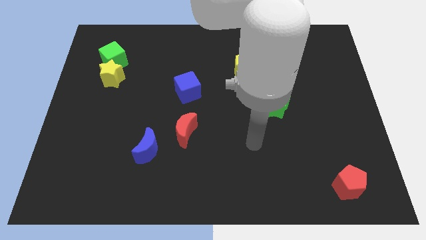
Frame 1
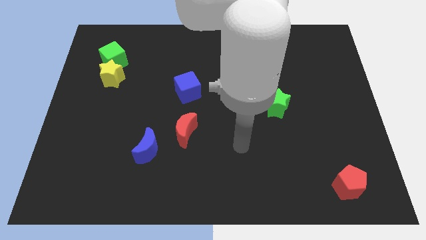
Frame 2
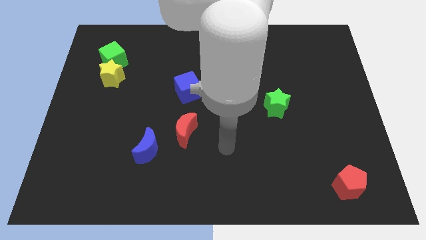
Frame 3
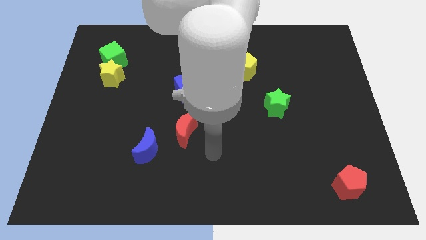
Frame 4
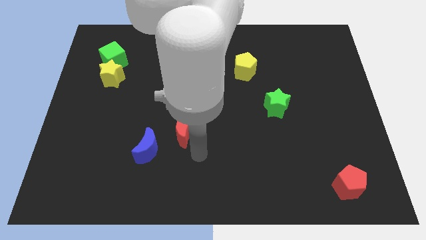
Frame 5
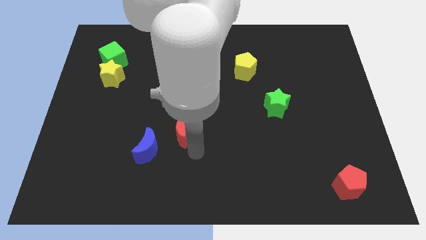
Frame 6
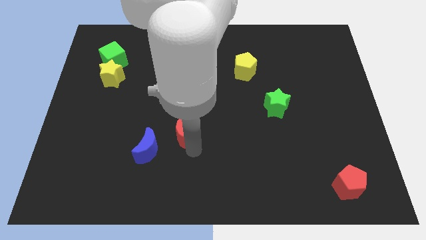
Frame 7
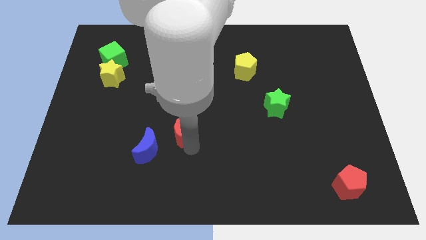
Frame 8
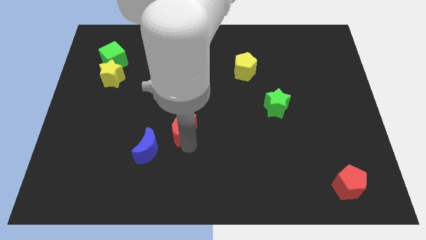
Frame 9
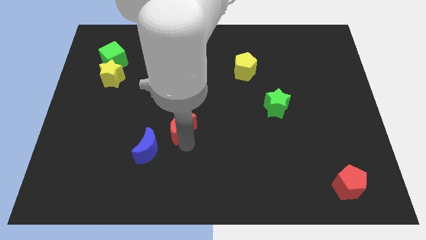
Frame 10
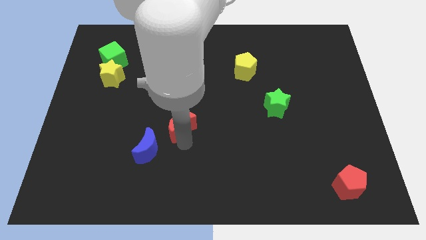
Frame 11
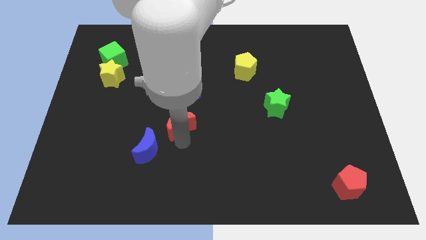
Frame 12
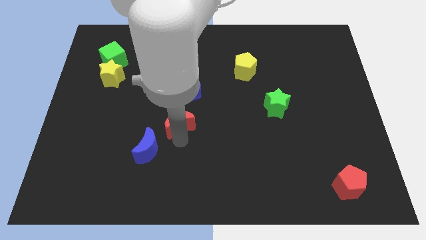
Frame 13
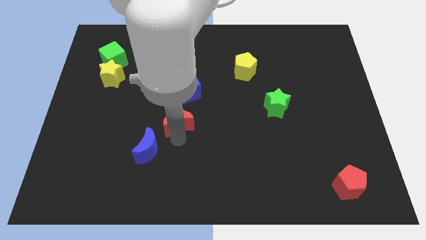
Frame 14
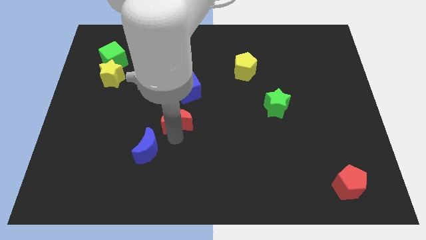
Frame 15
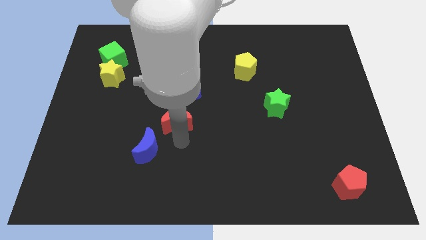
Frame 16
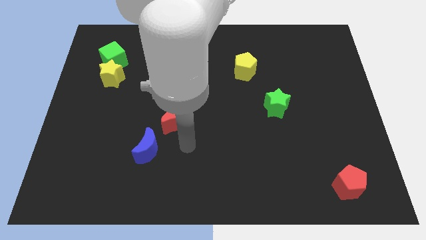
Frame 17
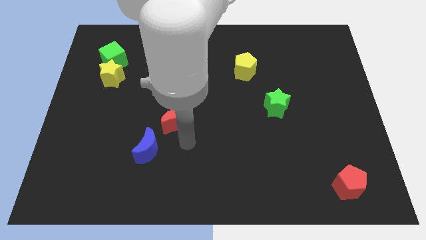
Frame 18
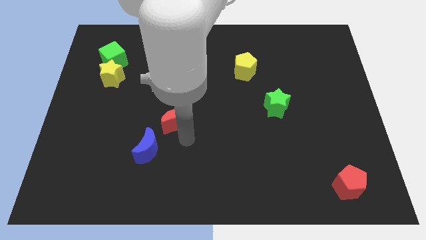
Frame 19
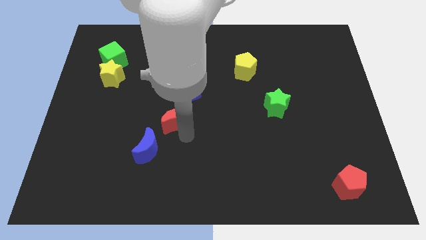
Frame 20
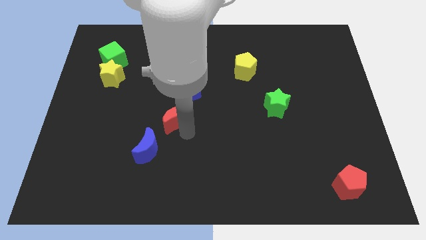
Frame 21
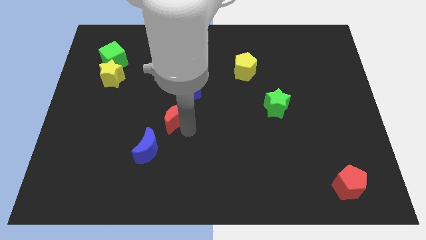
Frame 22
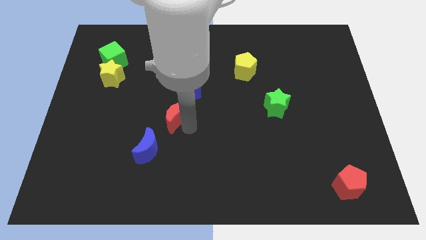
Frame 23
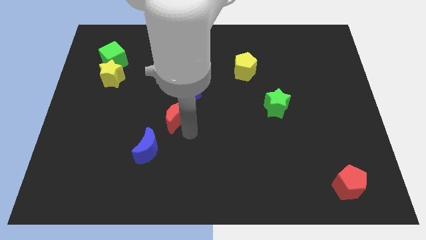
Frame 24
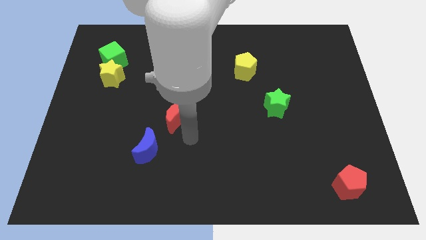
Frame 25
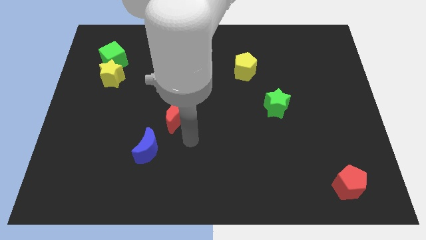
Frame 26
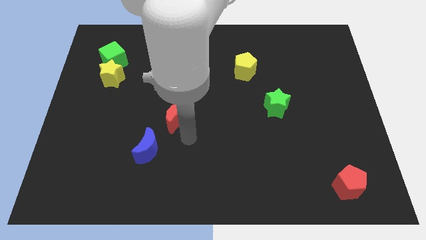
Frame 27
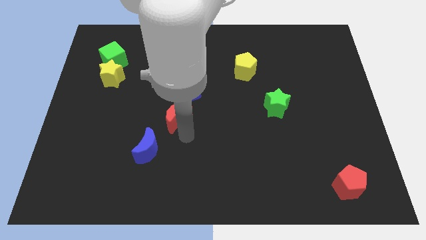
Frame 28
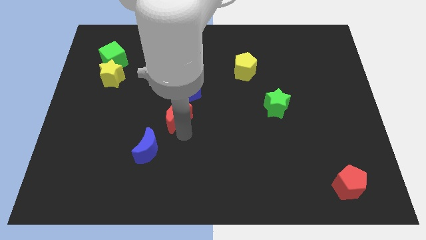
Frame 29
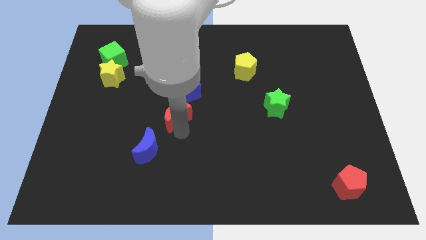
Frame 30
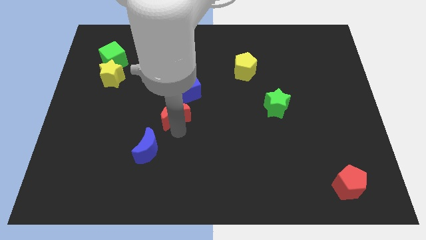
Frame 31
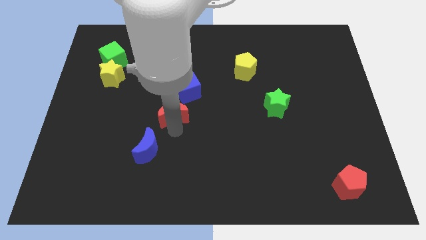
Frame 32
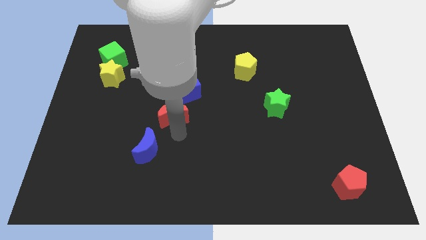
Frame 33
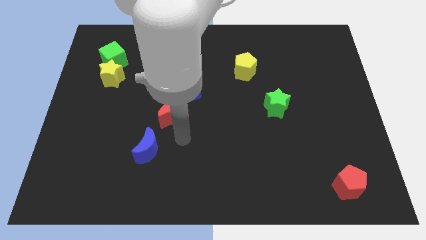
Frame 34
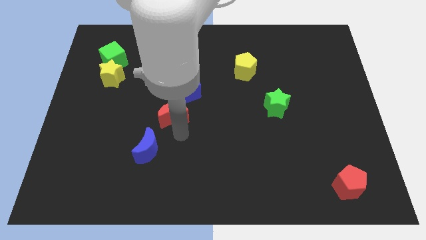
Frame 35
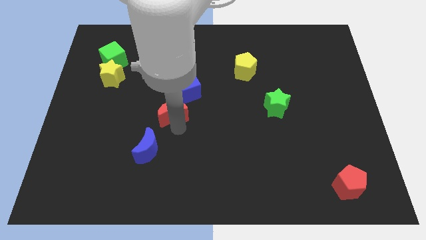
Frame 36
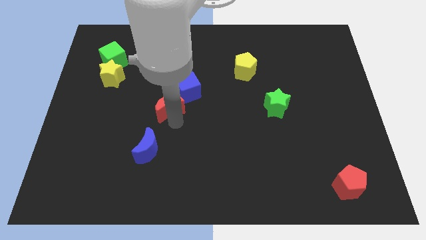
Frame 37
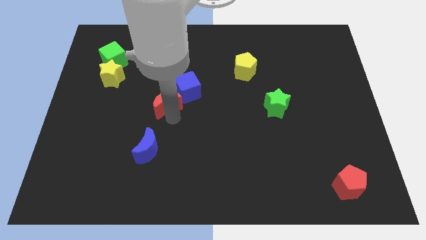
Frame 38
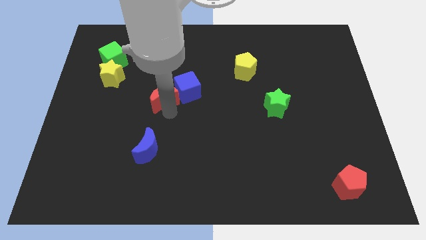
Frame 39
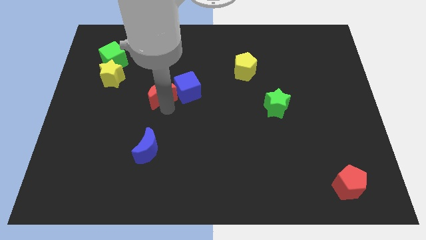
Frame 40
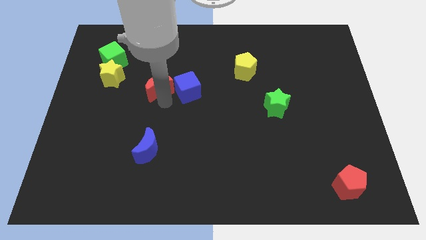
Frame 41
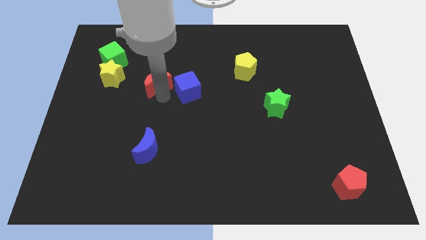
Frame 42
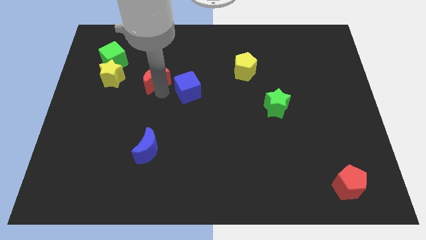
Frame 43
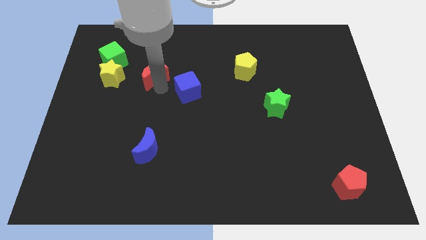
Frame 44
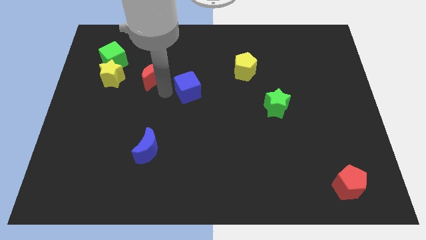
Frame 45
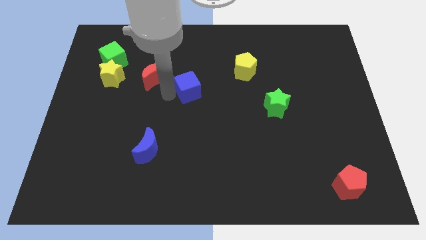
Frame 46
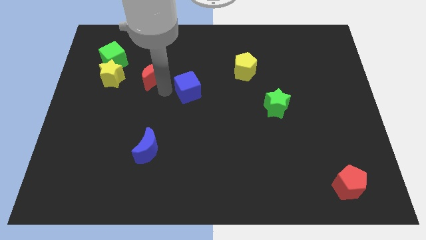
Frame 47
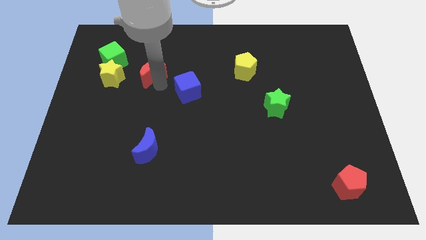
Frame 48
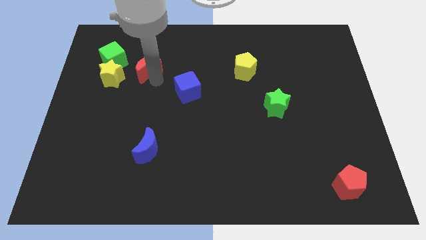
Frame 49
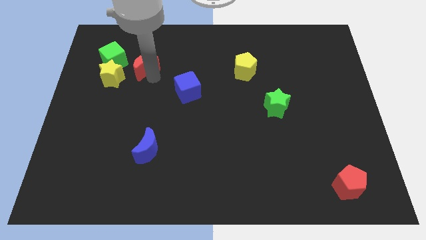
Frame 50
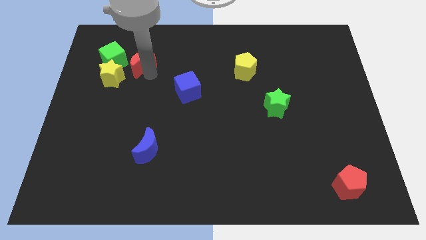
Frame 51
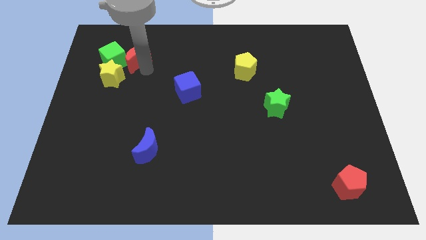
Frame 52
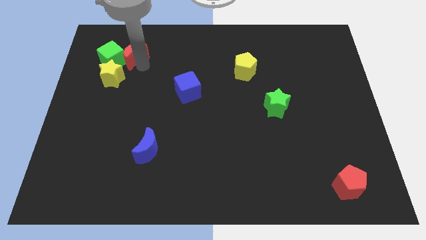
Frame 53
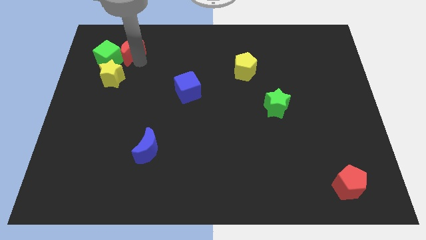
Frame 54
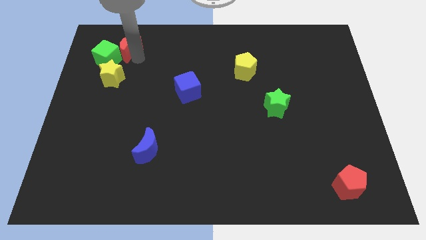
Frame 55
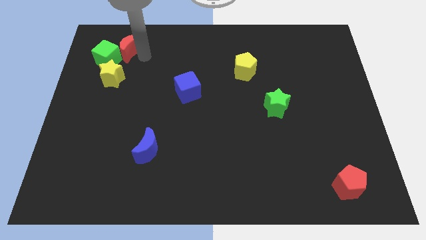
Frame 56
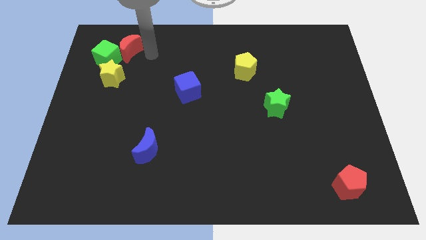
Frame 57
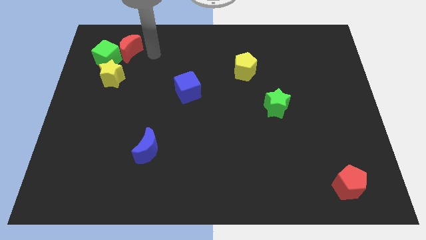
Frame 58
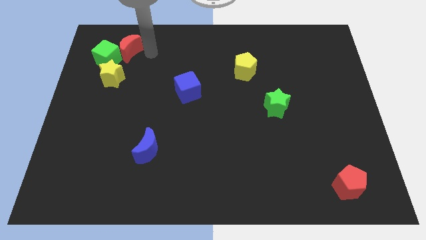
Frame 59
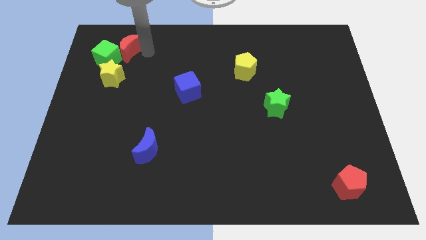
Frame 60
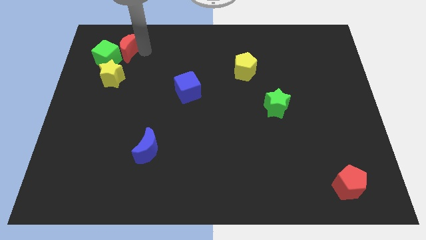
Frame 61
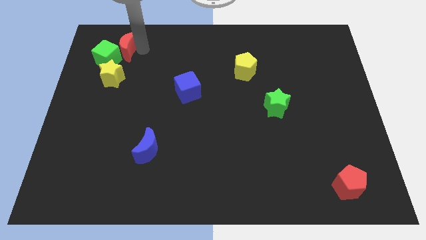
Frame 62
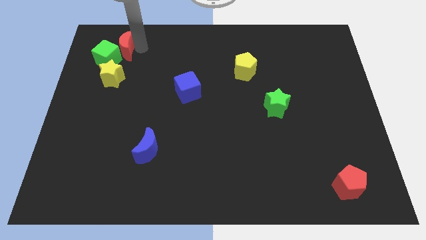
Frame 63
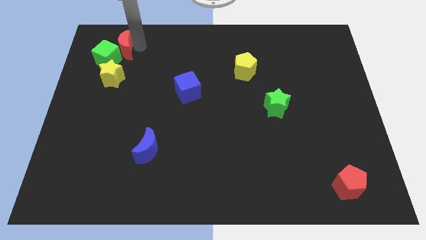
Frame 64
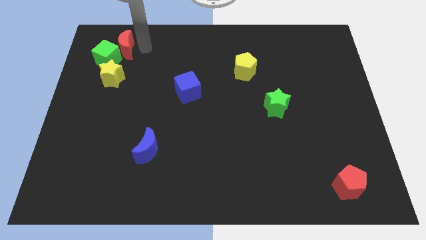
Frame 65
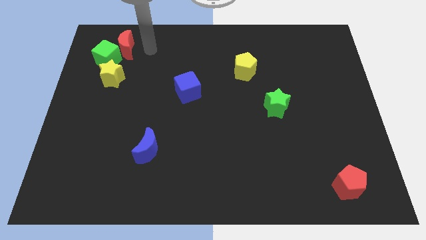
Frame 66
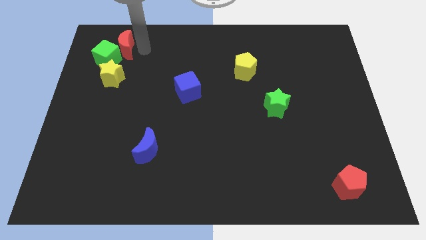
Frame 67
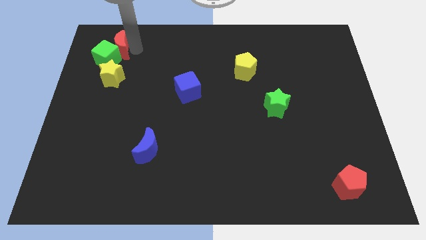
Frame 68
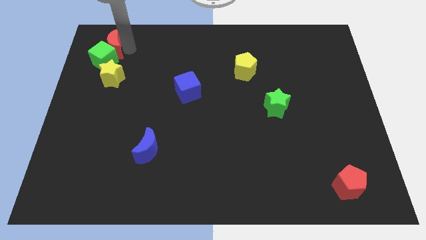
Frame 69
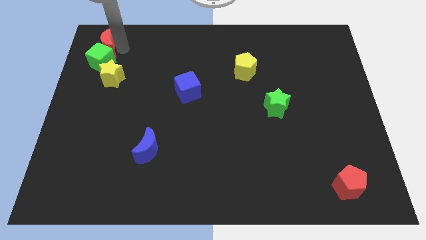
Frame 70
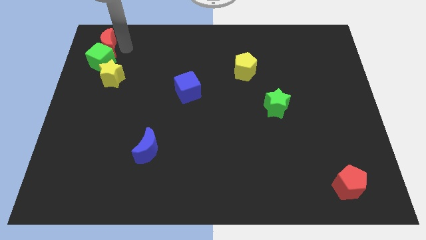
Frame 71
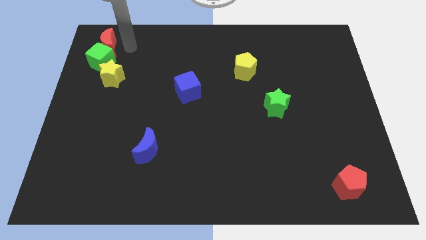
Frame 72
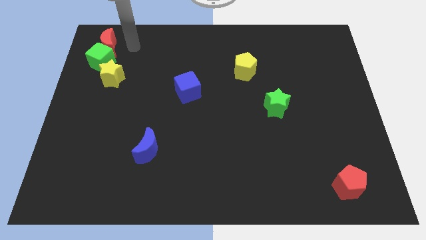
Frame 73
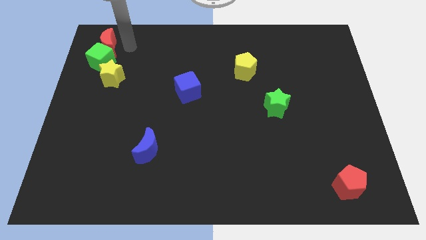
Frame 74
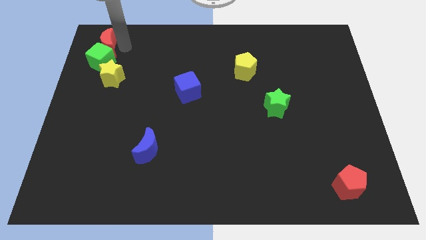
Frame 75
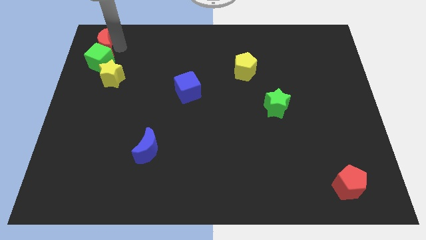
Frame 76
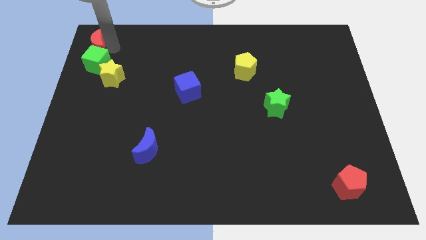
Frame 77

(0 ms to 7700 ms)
push the red moon to the top left corner
